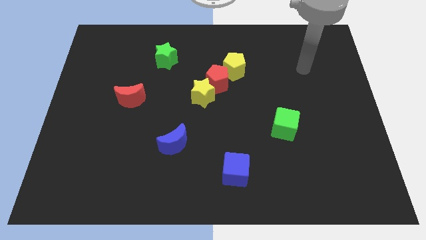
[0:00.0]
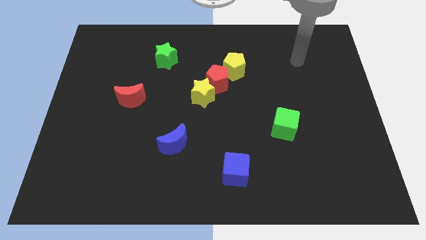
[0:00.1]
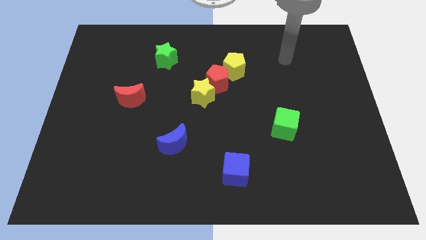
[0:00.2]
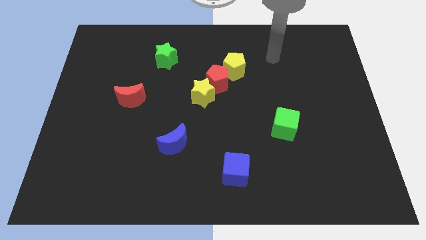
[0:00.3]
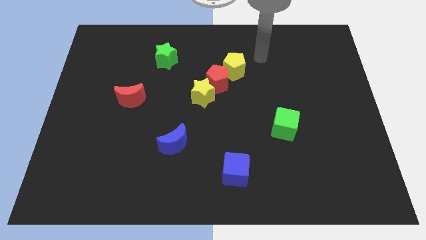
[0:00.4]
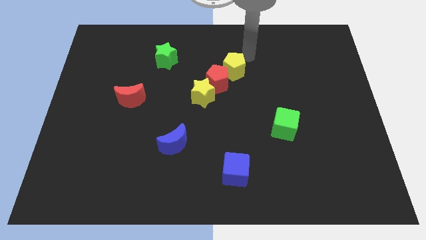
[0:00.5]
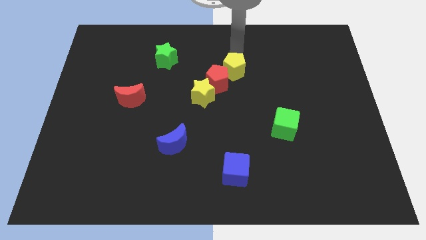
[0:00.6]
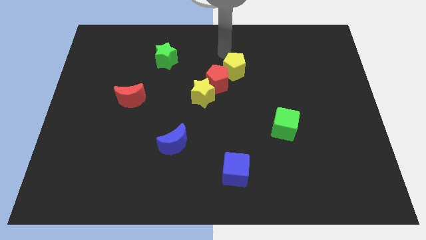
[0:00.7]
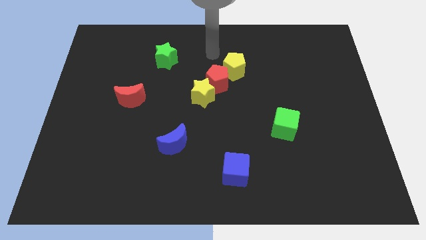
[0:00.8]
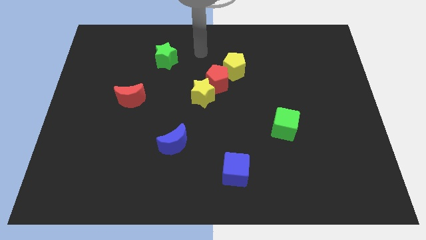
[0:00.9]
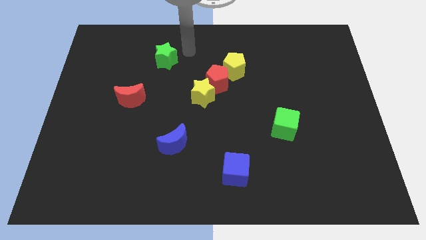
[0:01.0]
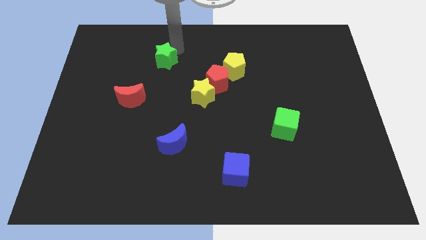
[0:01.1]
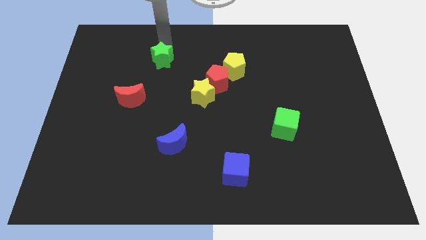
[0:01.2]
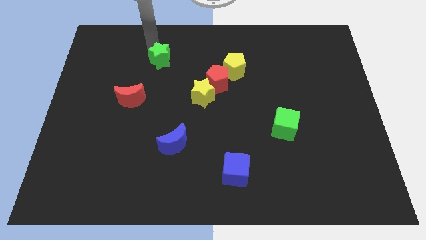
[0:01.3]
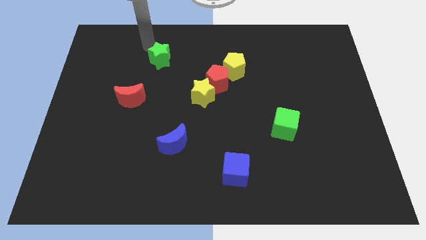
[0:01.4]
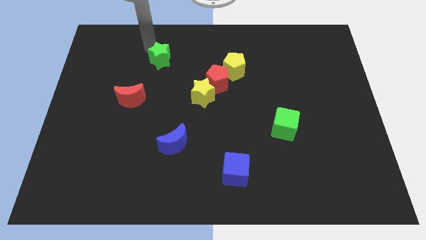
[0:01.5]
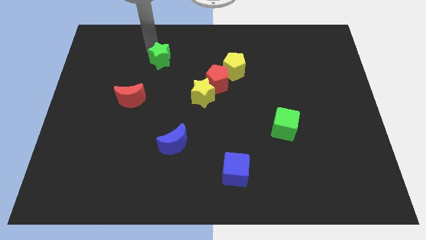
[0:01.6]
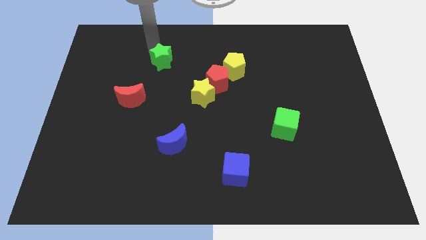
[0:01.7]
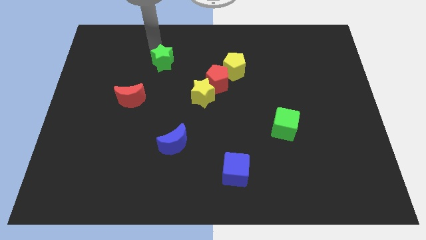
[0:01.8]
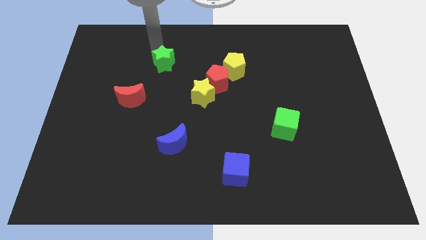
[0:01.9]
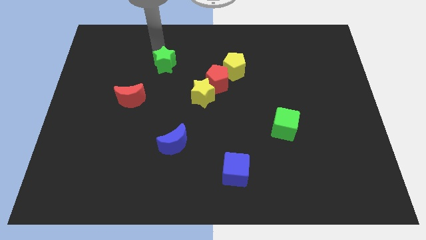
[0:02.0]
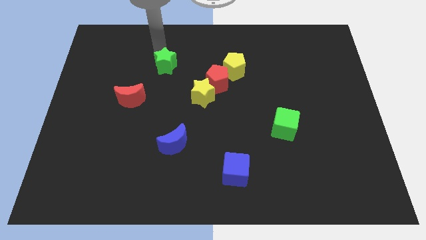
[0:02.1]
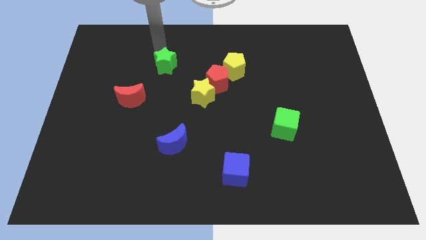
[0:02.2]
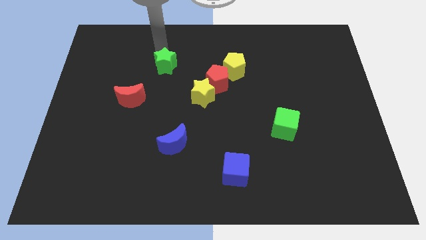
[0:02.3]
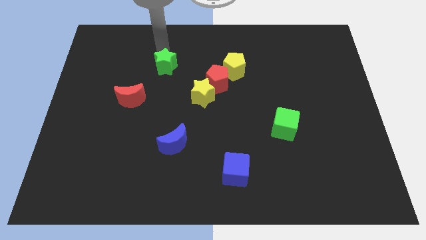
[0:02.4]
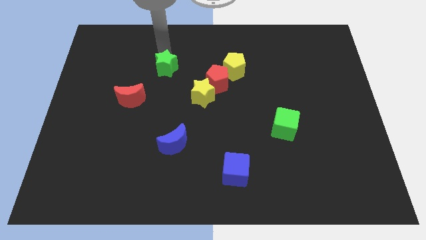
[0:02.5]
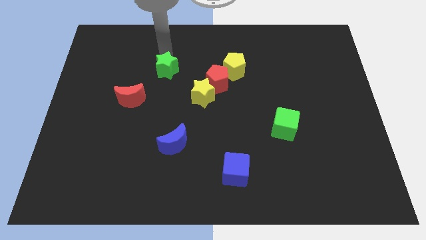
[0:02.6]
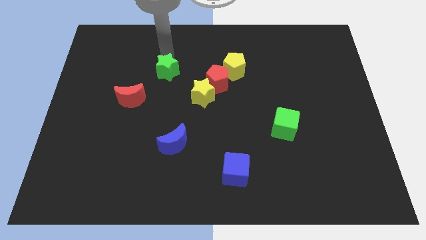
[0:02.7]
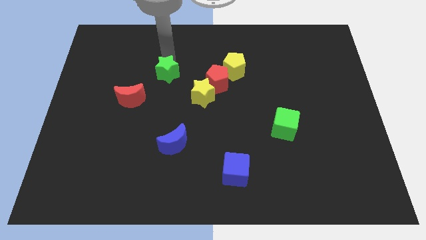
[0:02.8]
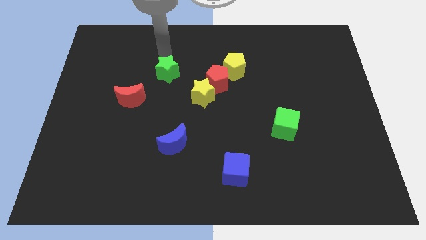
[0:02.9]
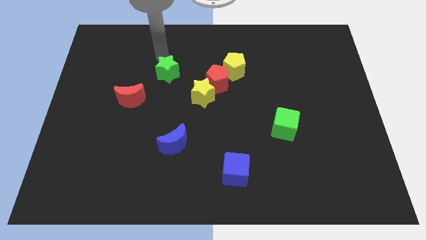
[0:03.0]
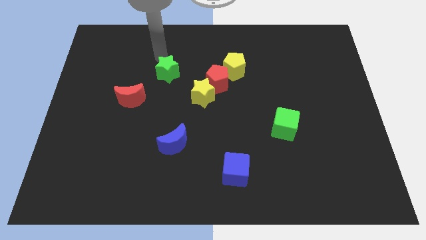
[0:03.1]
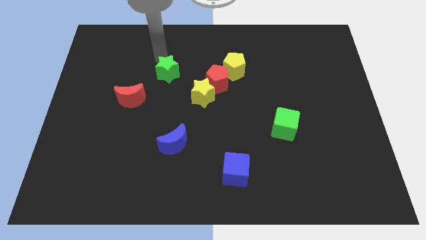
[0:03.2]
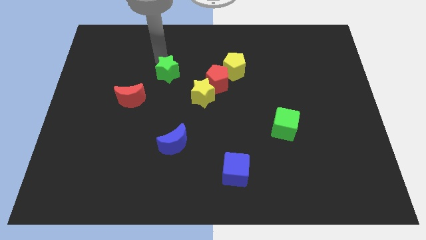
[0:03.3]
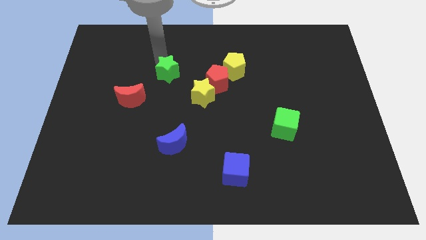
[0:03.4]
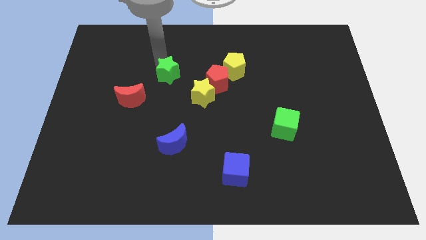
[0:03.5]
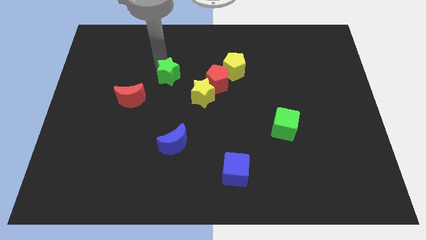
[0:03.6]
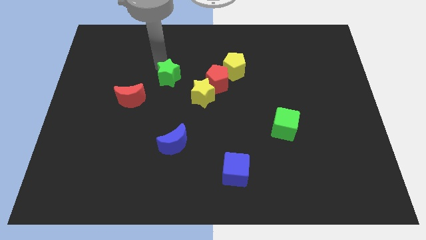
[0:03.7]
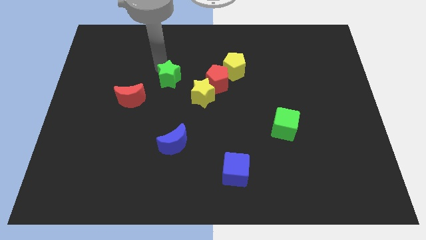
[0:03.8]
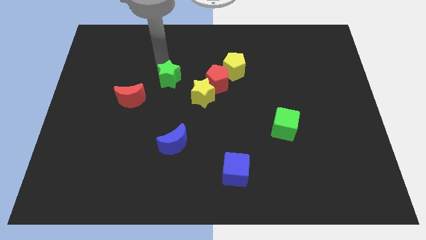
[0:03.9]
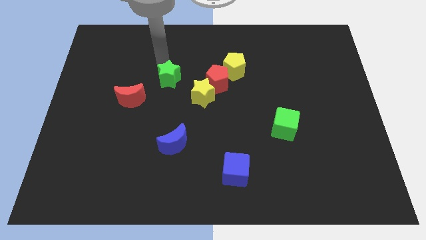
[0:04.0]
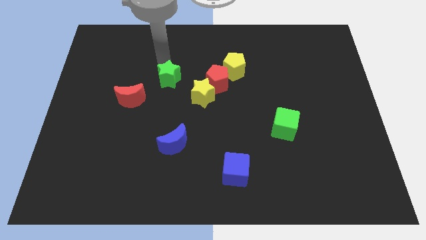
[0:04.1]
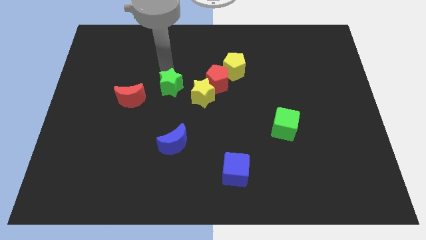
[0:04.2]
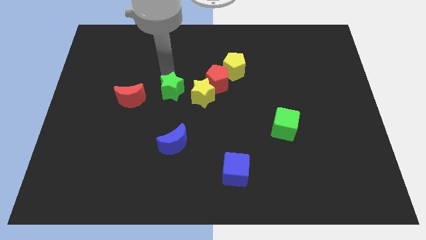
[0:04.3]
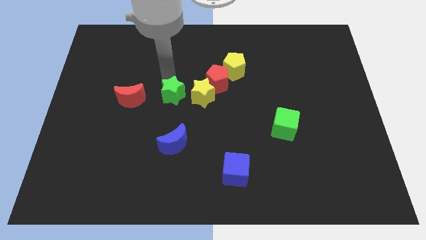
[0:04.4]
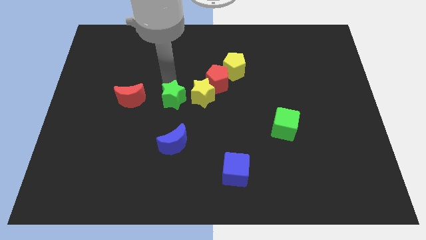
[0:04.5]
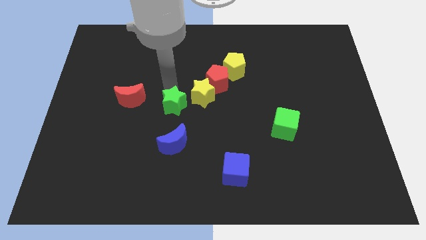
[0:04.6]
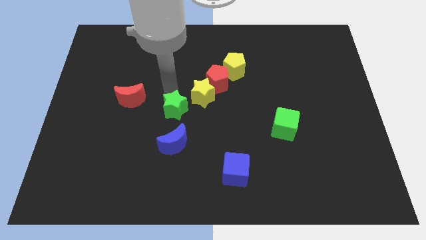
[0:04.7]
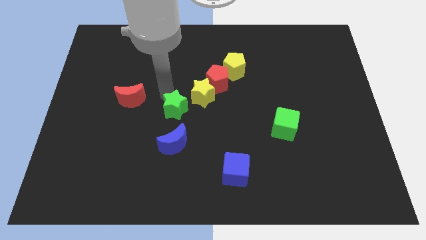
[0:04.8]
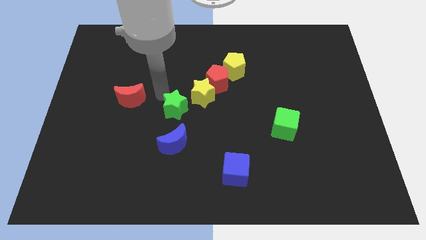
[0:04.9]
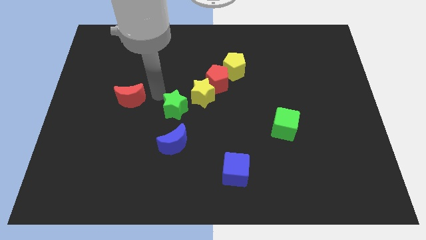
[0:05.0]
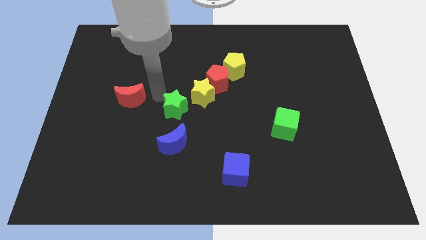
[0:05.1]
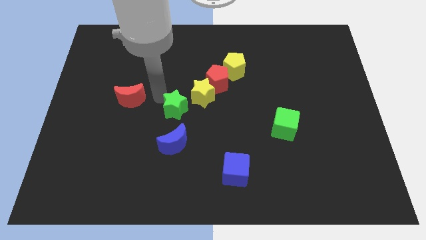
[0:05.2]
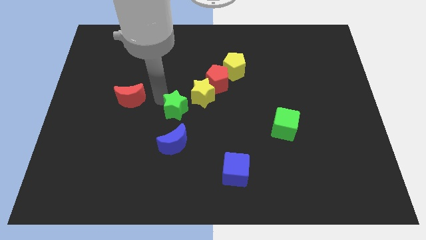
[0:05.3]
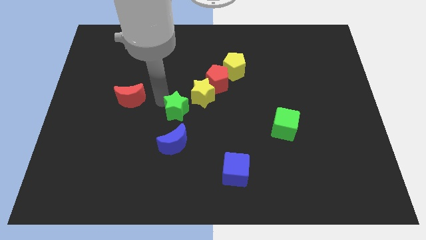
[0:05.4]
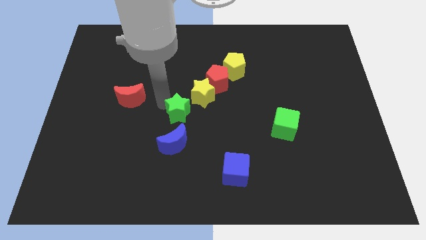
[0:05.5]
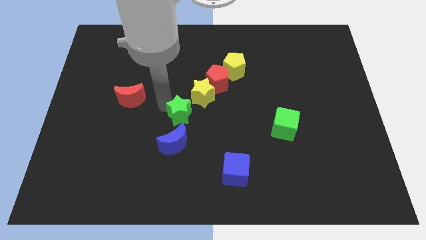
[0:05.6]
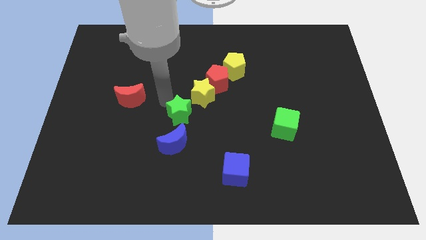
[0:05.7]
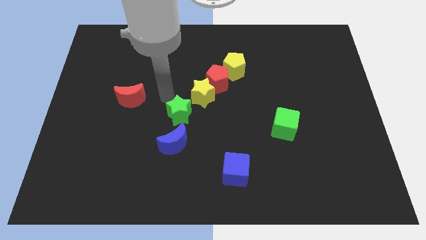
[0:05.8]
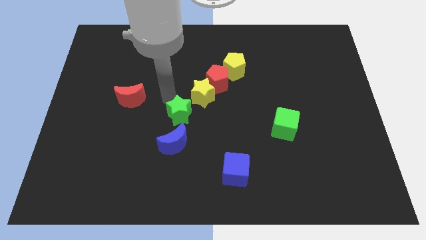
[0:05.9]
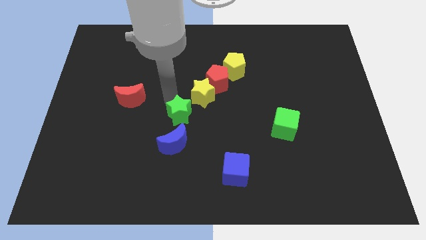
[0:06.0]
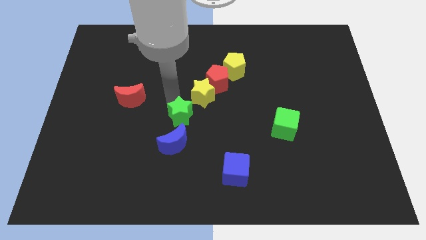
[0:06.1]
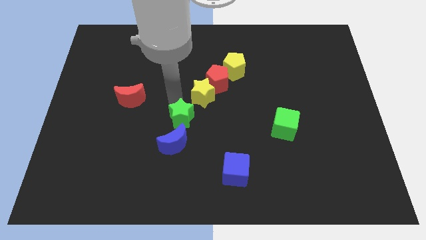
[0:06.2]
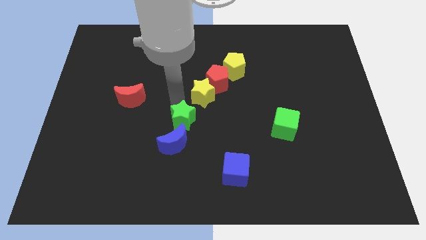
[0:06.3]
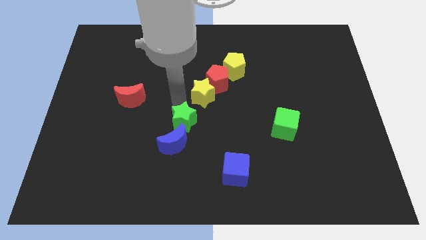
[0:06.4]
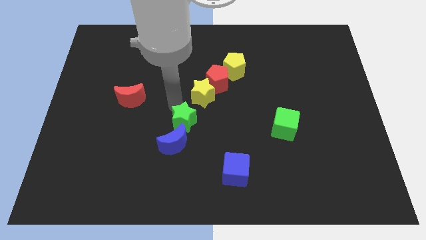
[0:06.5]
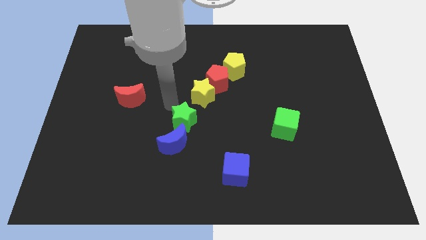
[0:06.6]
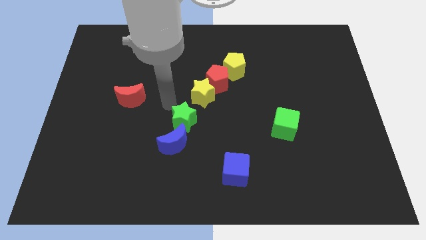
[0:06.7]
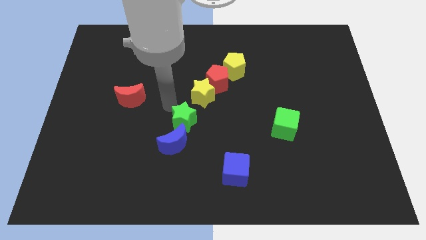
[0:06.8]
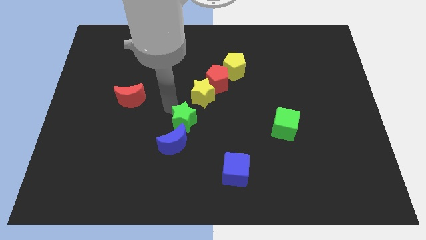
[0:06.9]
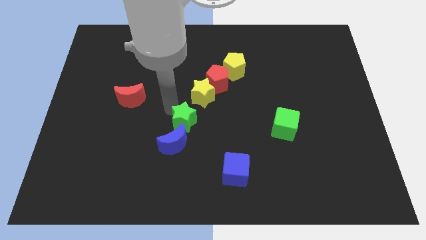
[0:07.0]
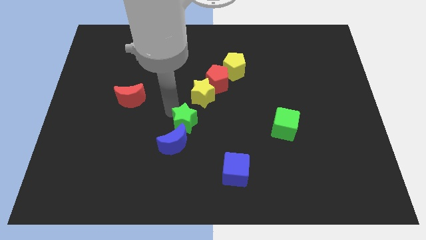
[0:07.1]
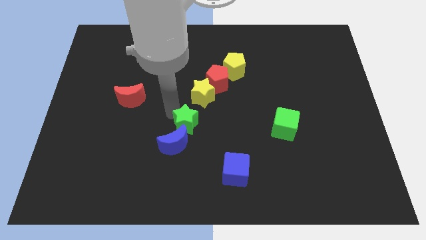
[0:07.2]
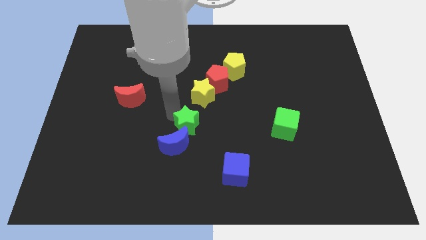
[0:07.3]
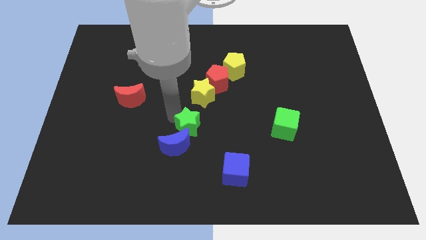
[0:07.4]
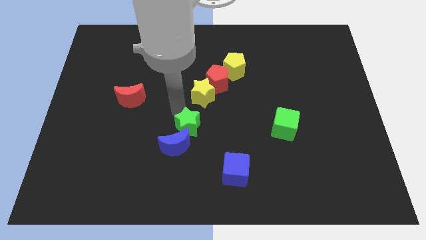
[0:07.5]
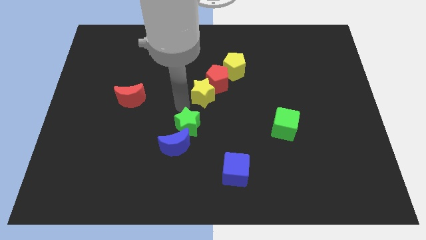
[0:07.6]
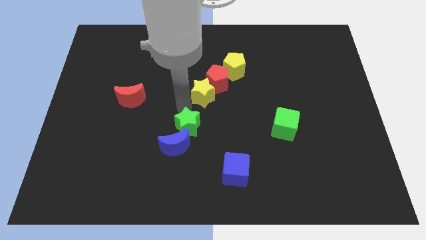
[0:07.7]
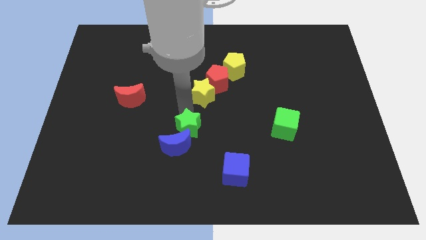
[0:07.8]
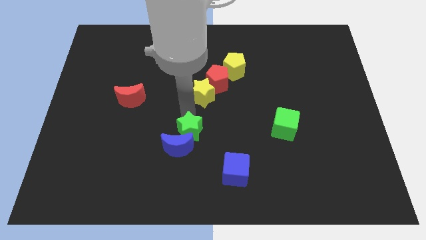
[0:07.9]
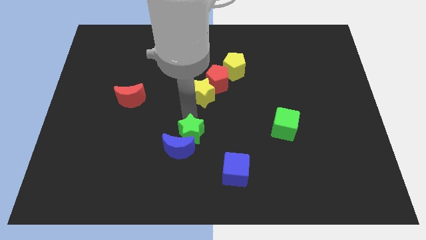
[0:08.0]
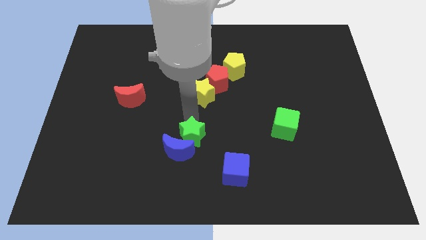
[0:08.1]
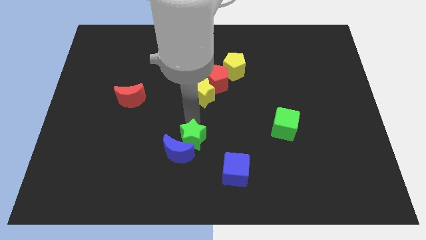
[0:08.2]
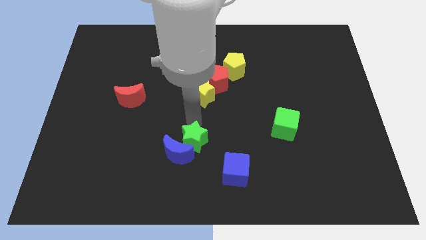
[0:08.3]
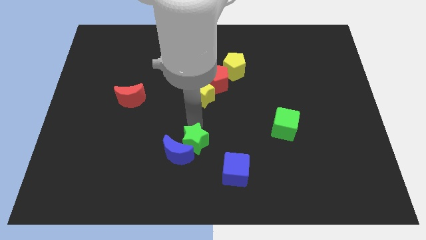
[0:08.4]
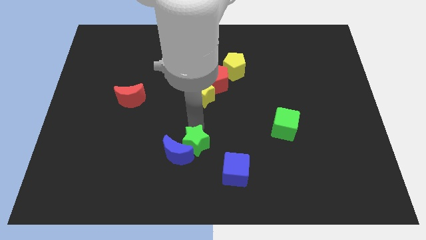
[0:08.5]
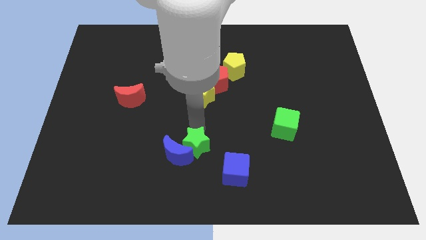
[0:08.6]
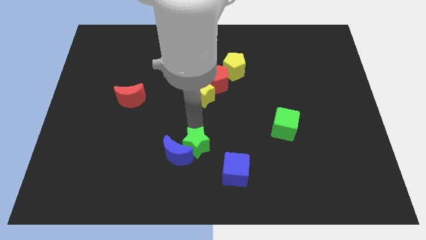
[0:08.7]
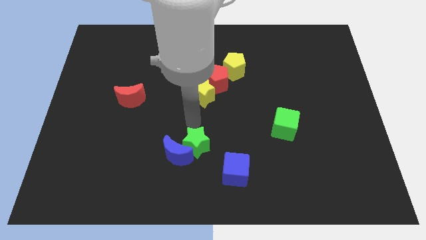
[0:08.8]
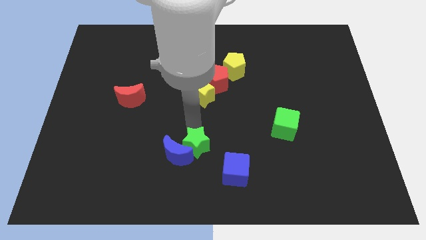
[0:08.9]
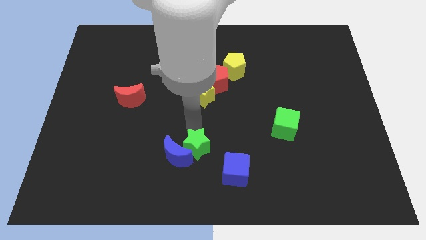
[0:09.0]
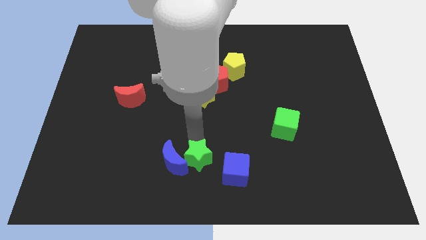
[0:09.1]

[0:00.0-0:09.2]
push the green star to the bottom side
